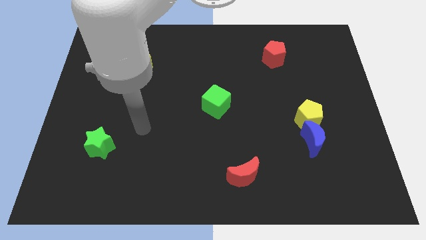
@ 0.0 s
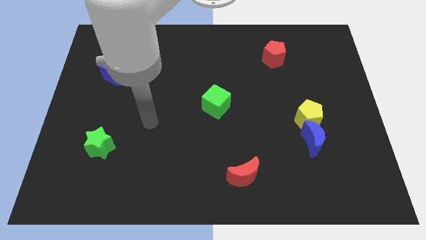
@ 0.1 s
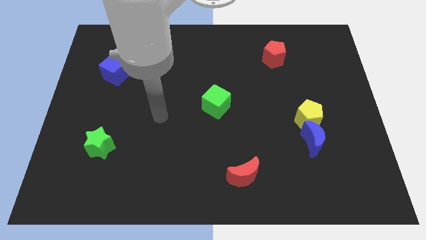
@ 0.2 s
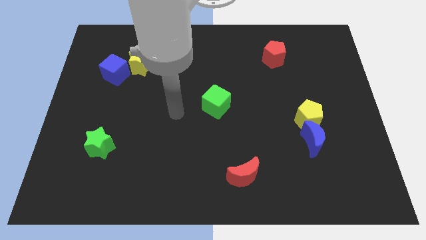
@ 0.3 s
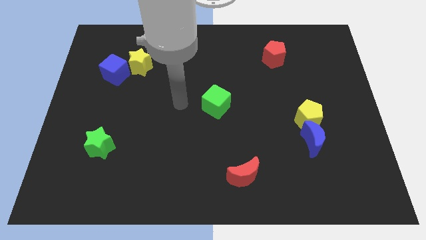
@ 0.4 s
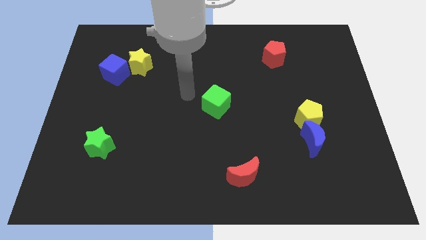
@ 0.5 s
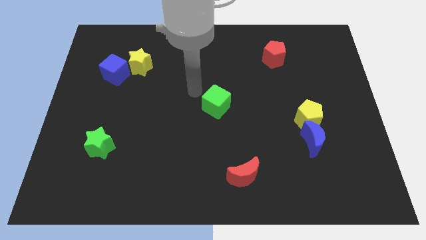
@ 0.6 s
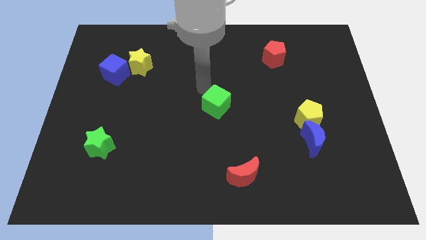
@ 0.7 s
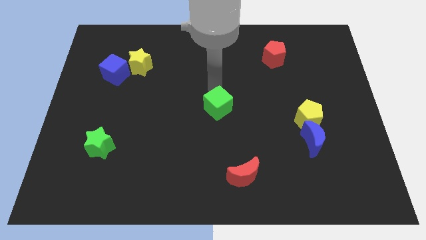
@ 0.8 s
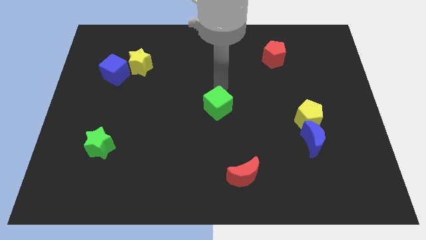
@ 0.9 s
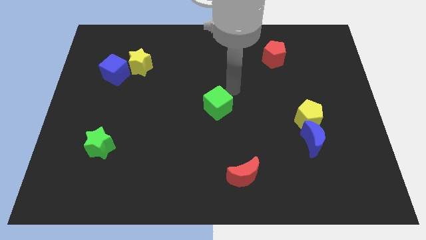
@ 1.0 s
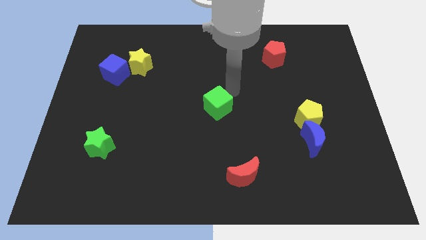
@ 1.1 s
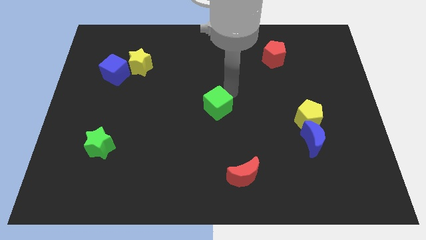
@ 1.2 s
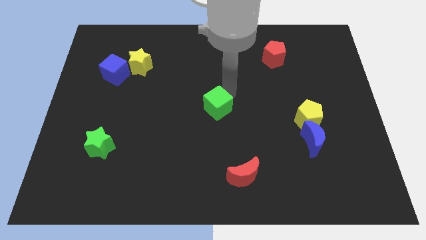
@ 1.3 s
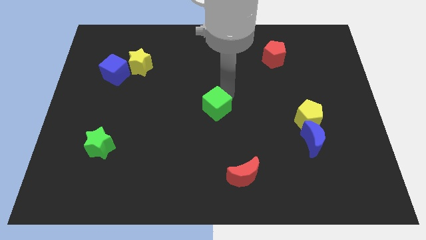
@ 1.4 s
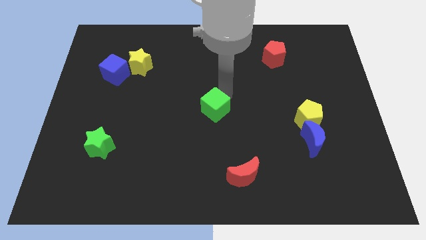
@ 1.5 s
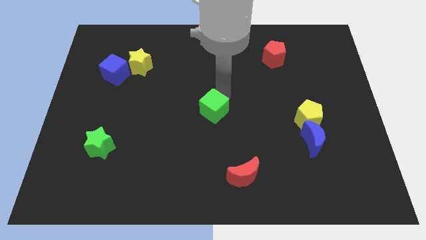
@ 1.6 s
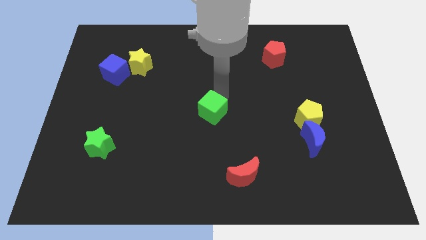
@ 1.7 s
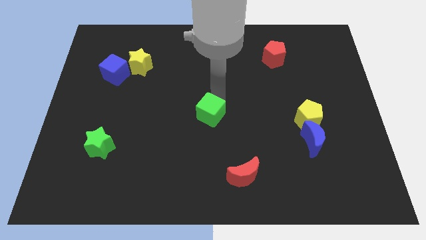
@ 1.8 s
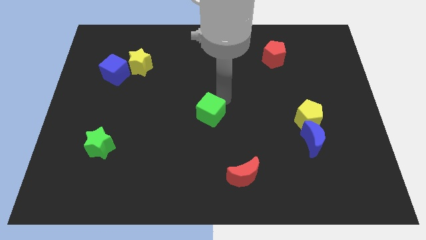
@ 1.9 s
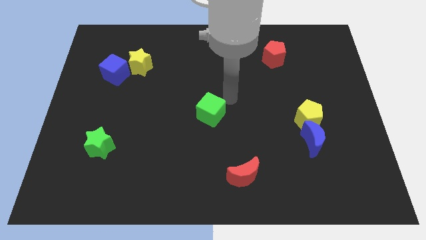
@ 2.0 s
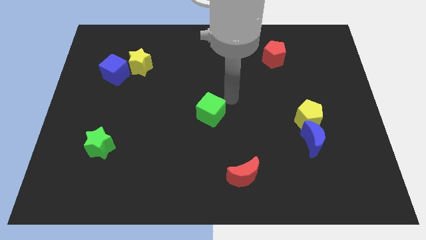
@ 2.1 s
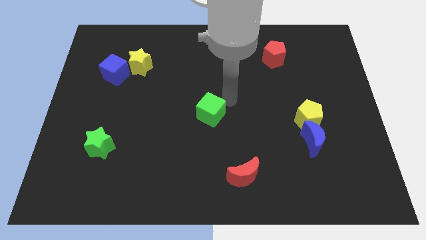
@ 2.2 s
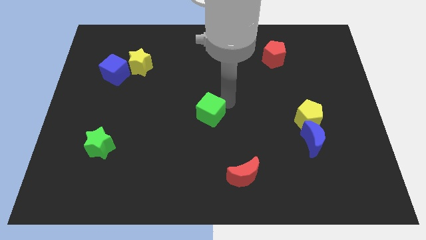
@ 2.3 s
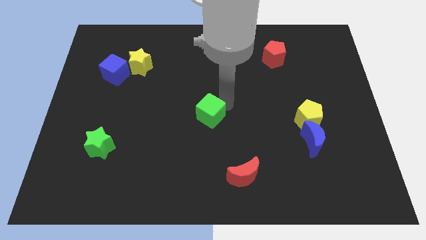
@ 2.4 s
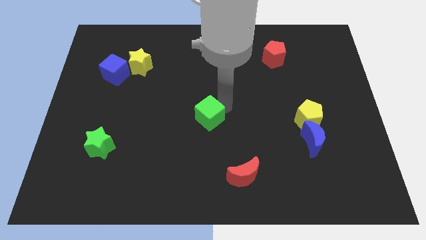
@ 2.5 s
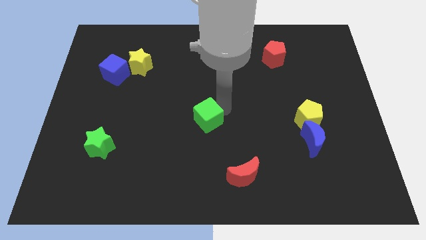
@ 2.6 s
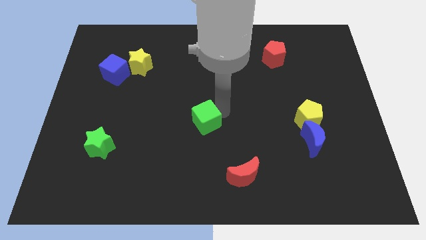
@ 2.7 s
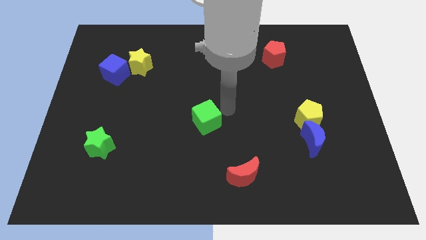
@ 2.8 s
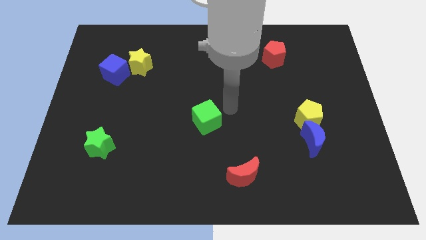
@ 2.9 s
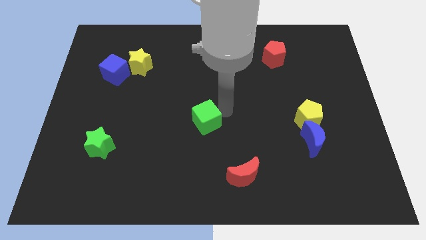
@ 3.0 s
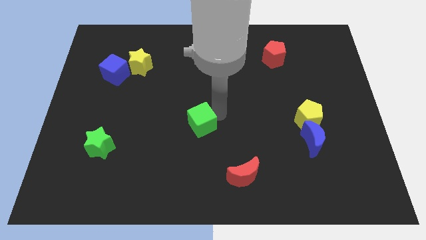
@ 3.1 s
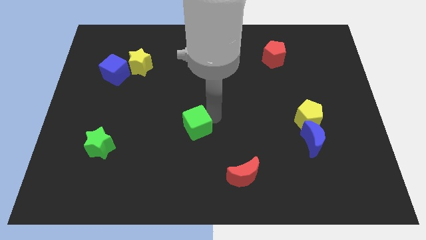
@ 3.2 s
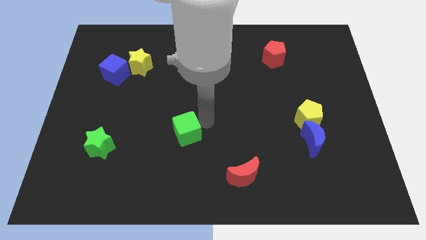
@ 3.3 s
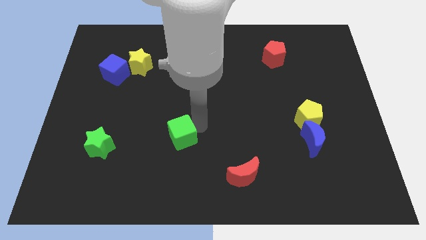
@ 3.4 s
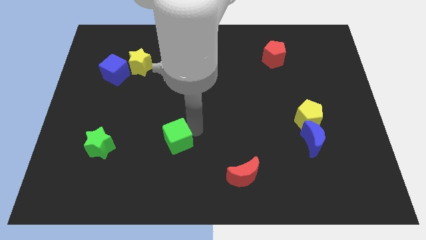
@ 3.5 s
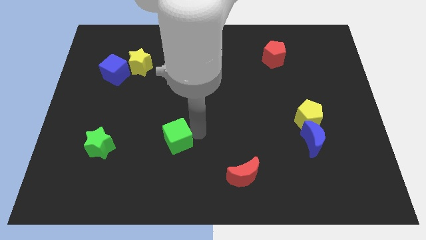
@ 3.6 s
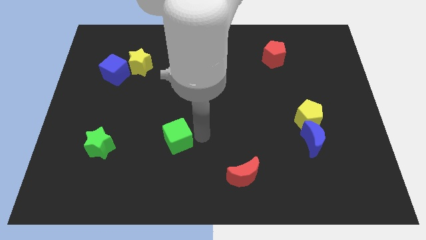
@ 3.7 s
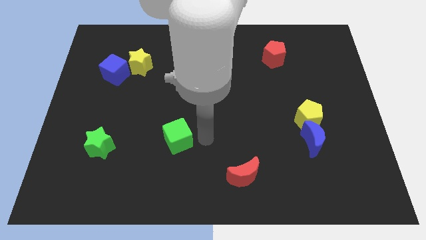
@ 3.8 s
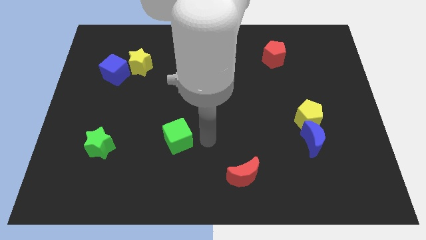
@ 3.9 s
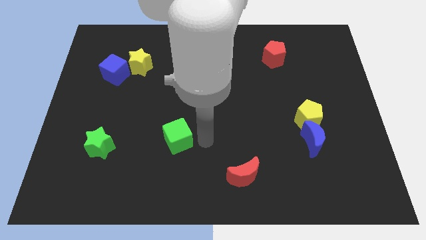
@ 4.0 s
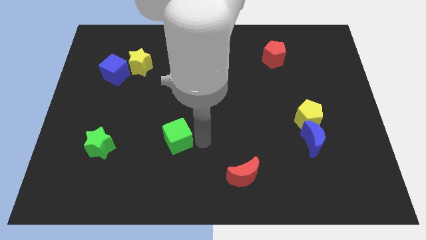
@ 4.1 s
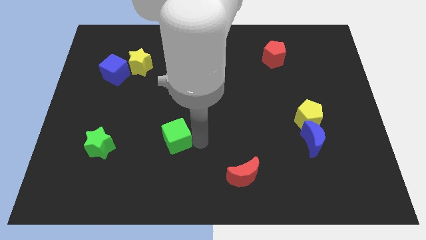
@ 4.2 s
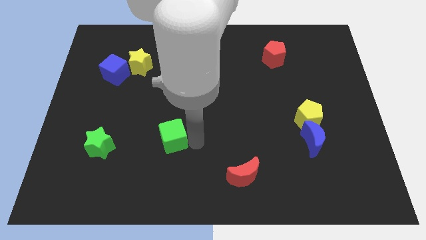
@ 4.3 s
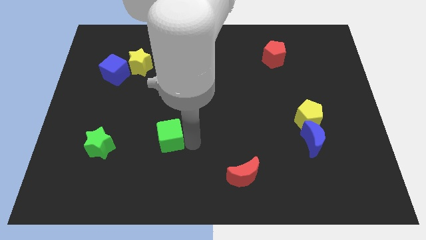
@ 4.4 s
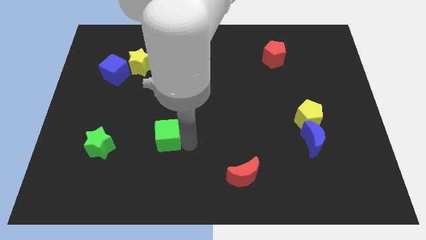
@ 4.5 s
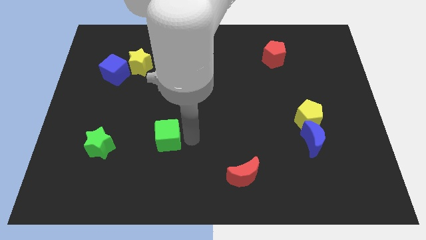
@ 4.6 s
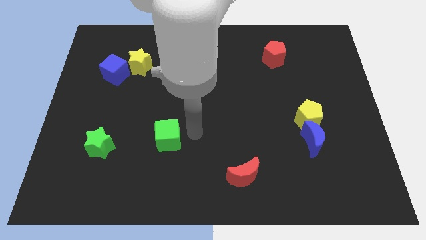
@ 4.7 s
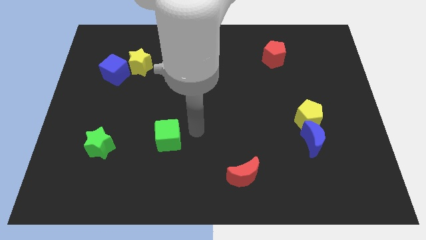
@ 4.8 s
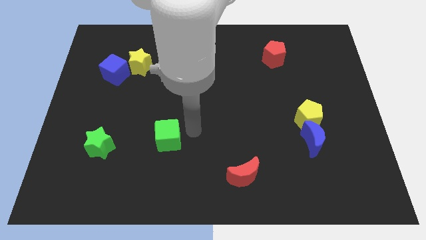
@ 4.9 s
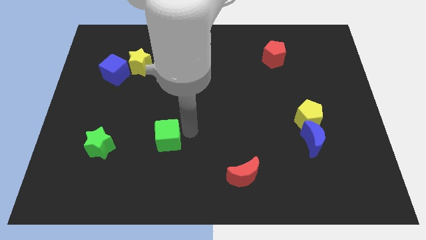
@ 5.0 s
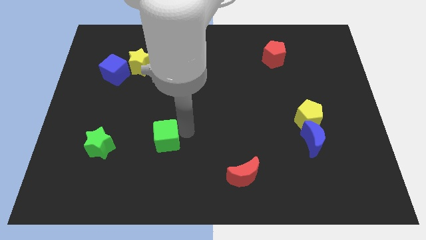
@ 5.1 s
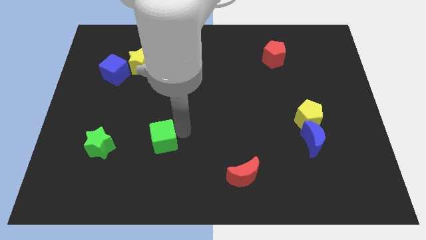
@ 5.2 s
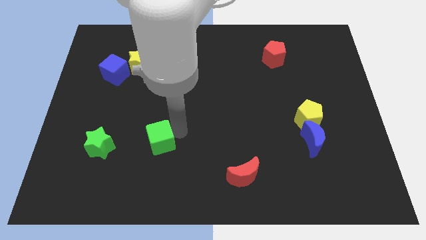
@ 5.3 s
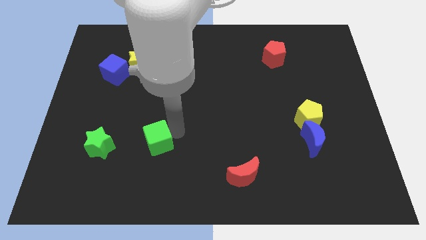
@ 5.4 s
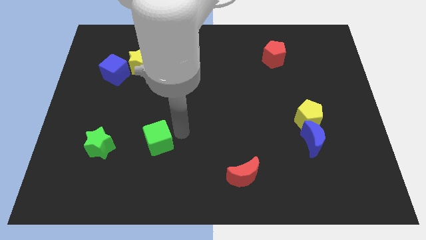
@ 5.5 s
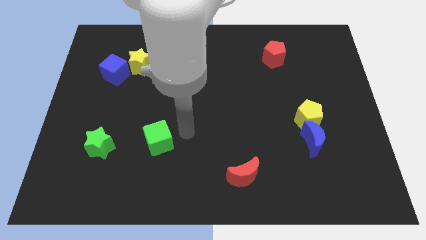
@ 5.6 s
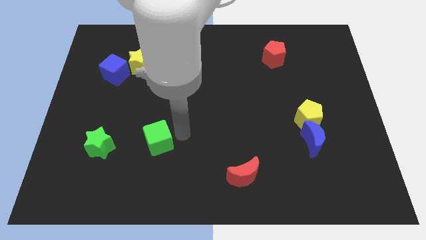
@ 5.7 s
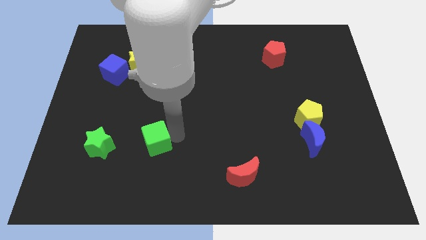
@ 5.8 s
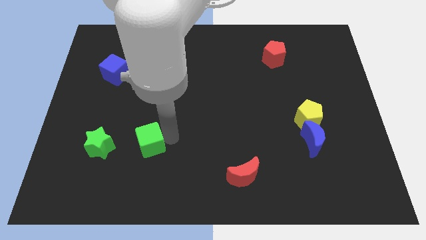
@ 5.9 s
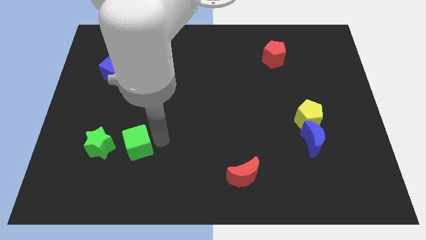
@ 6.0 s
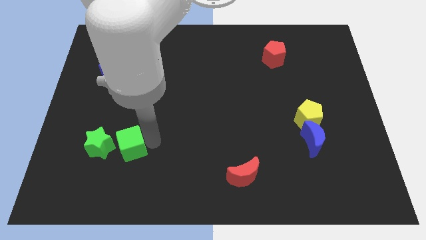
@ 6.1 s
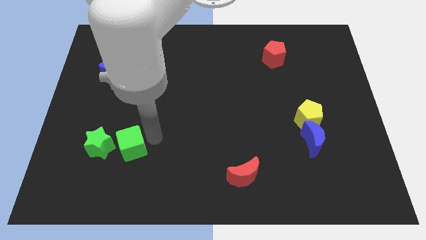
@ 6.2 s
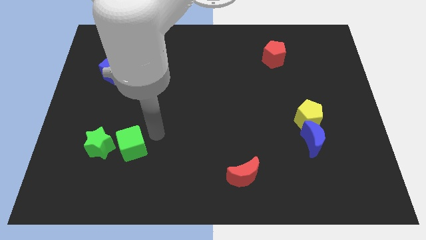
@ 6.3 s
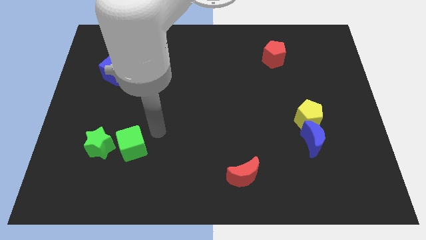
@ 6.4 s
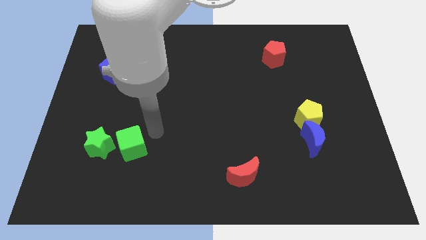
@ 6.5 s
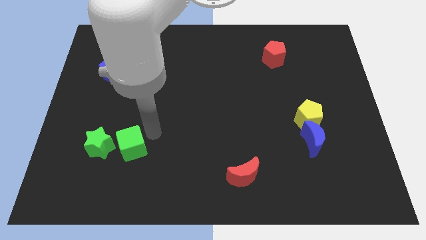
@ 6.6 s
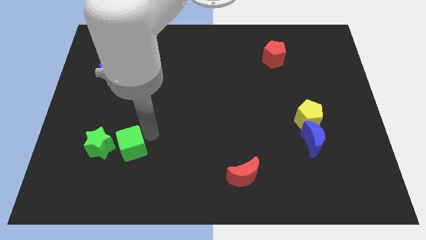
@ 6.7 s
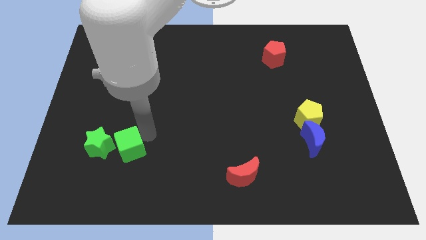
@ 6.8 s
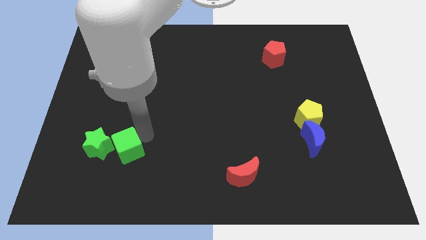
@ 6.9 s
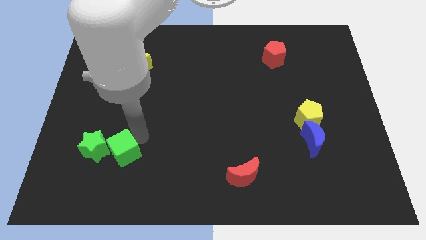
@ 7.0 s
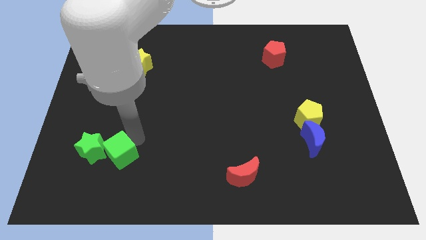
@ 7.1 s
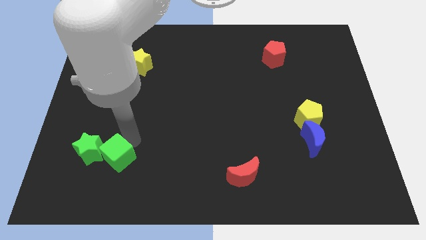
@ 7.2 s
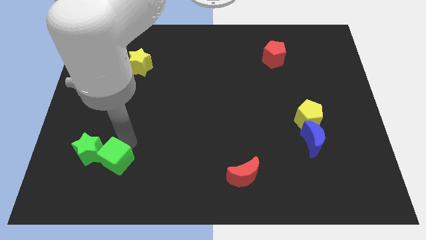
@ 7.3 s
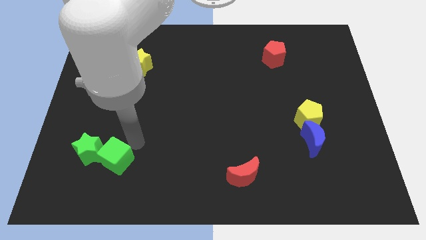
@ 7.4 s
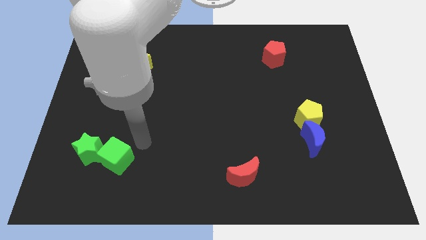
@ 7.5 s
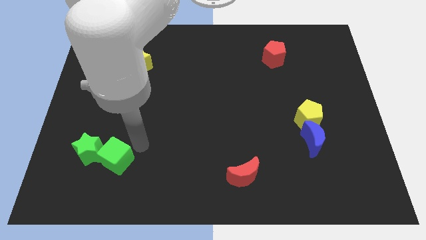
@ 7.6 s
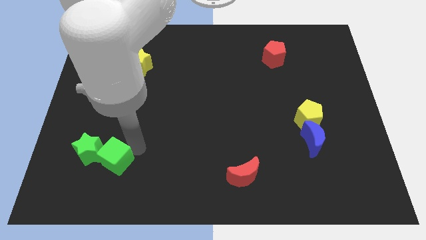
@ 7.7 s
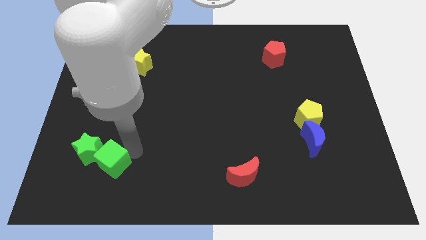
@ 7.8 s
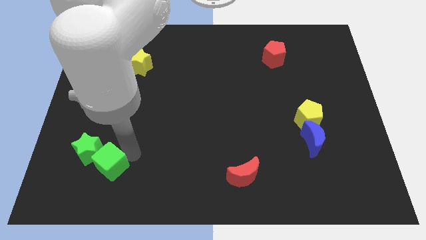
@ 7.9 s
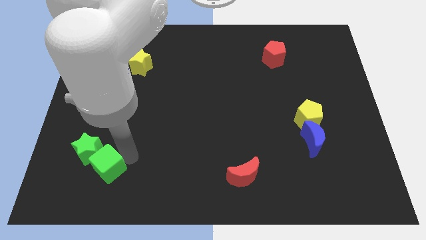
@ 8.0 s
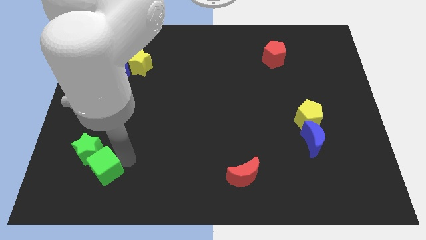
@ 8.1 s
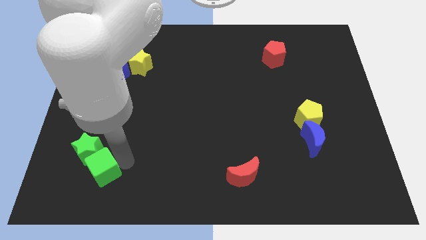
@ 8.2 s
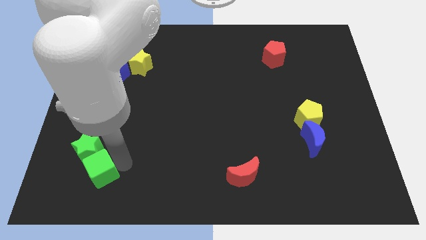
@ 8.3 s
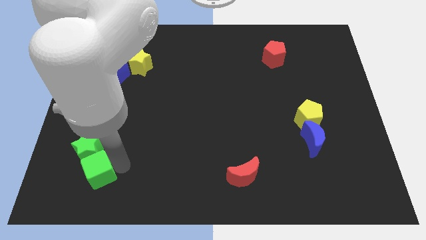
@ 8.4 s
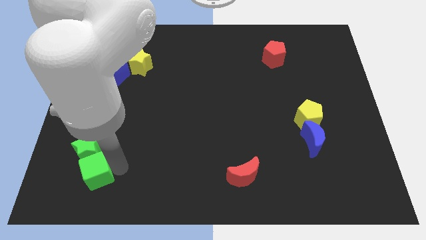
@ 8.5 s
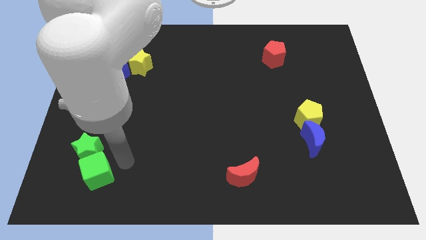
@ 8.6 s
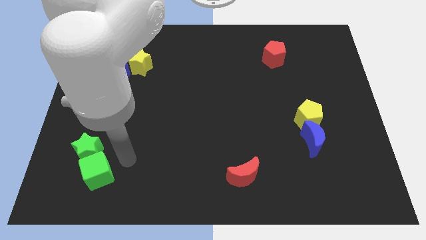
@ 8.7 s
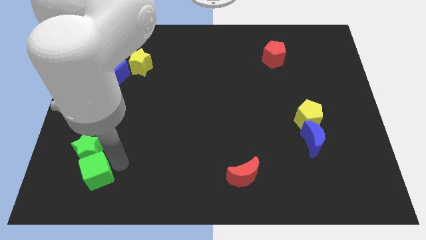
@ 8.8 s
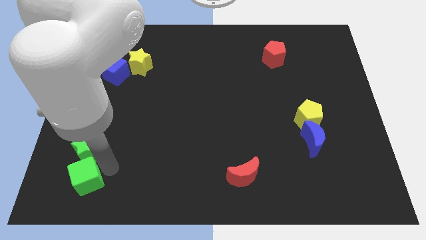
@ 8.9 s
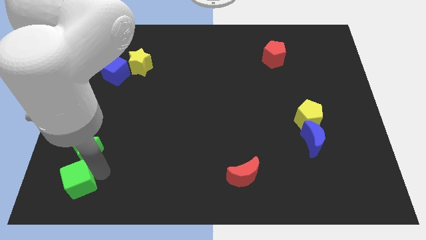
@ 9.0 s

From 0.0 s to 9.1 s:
put the green cube to the bottom left of the board
